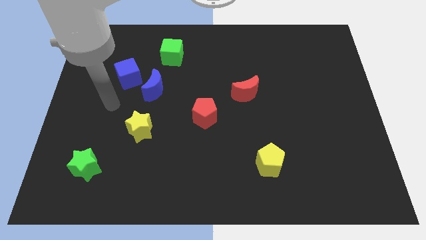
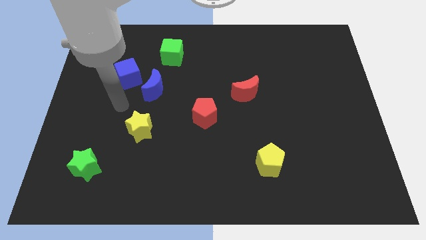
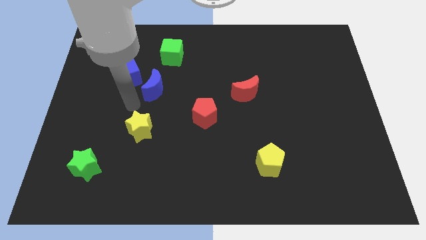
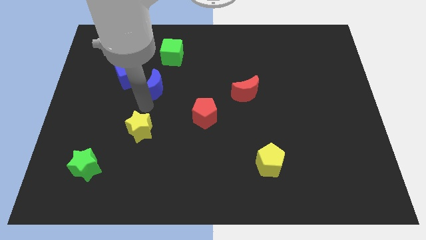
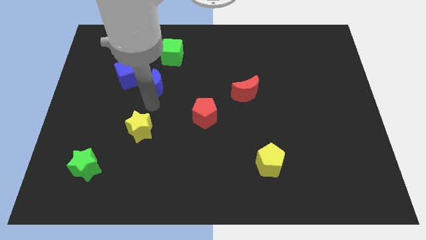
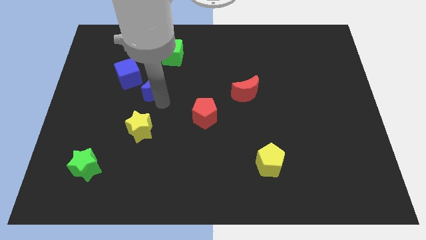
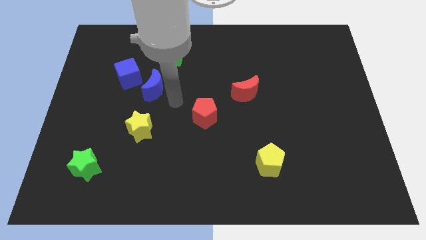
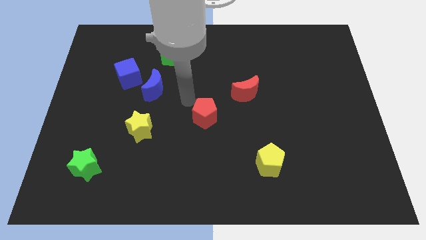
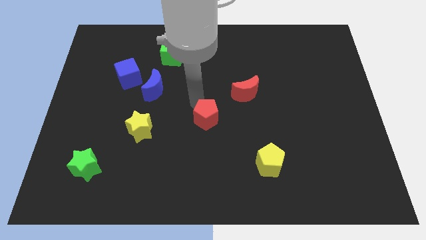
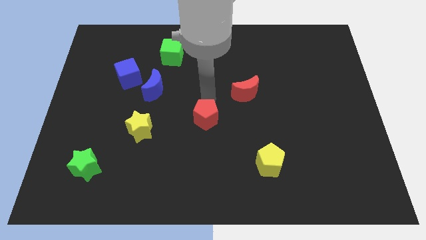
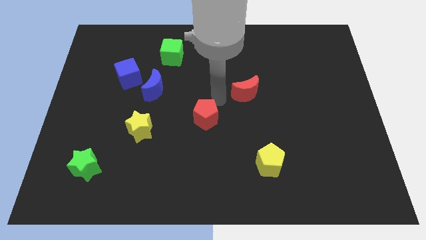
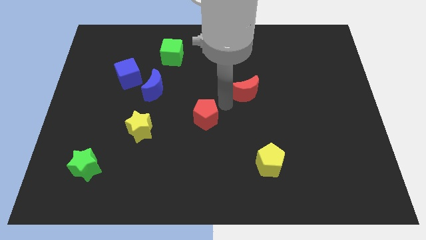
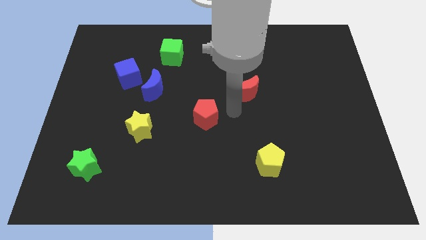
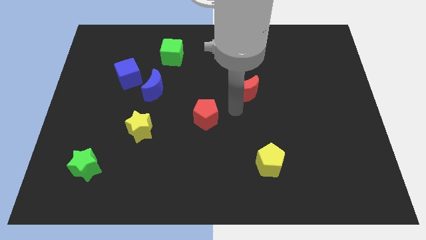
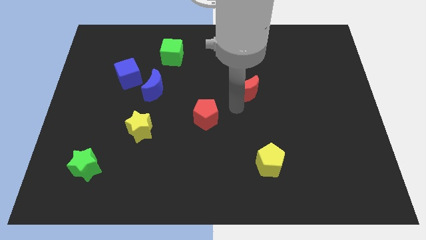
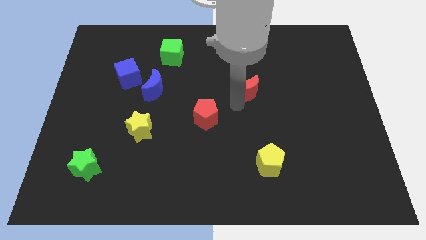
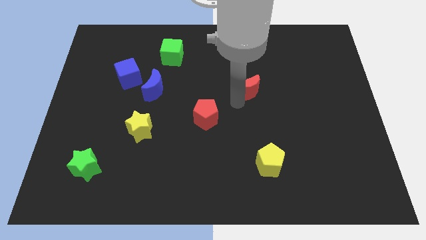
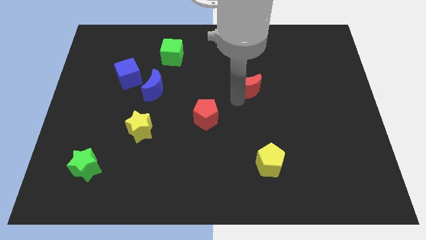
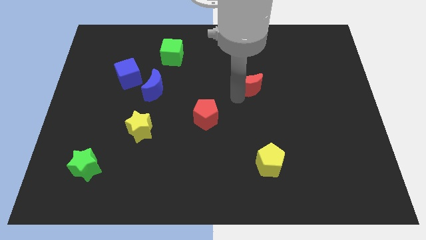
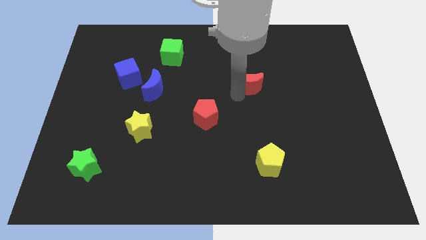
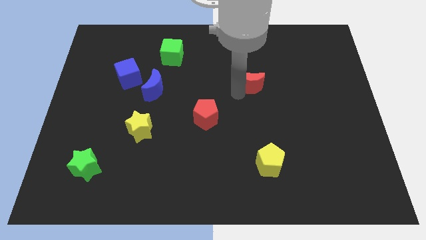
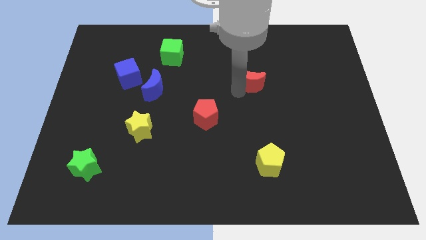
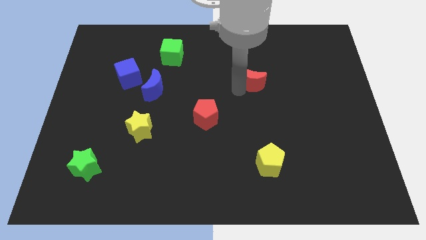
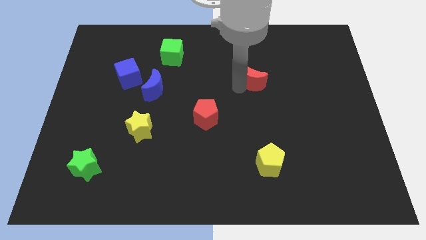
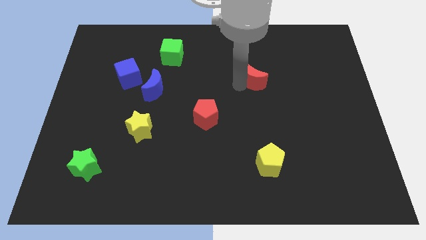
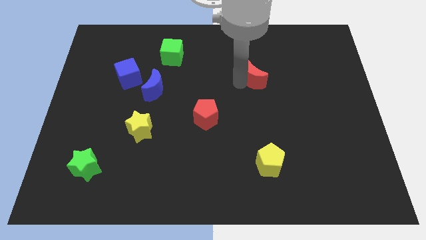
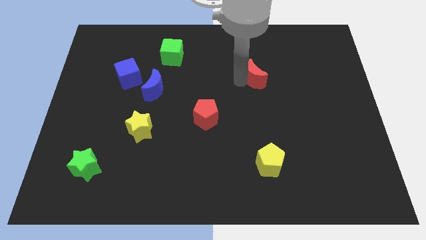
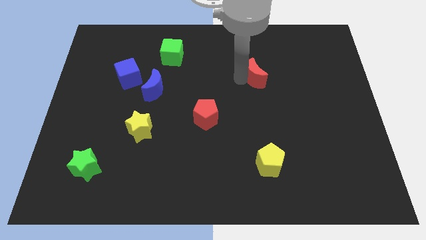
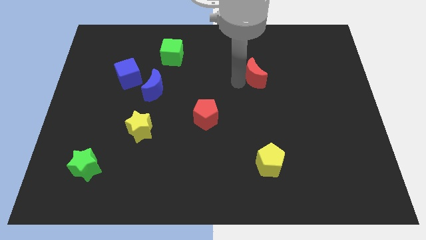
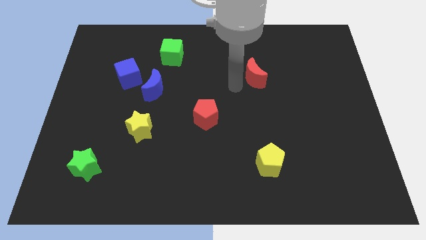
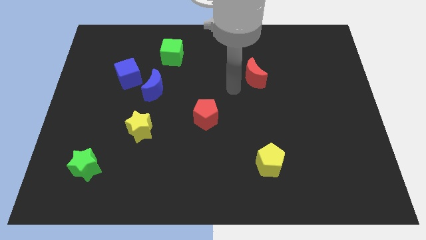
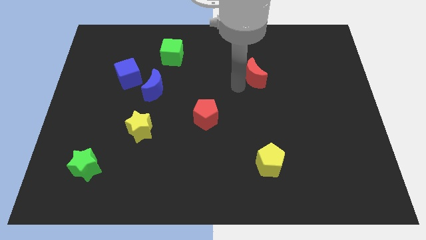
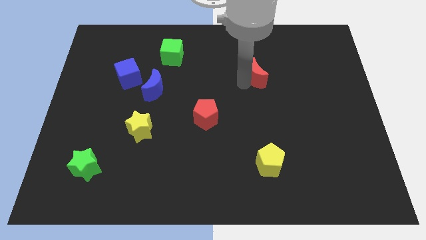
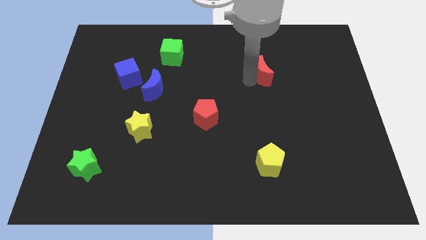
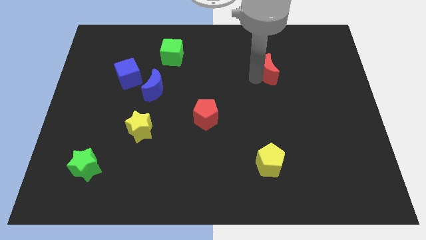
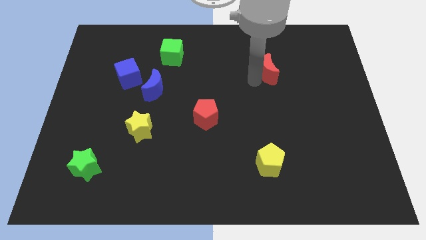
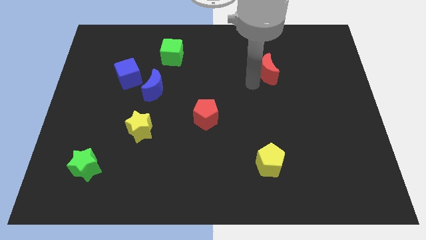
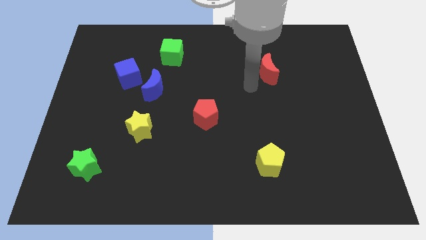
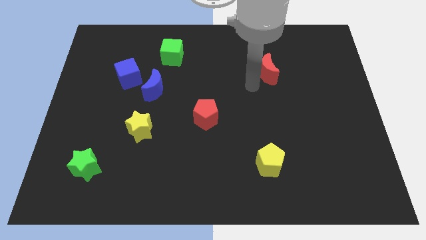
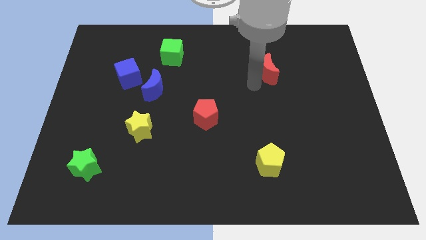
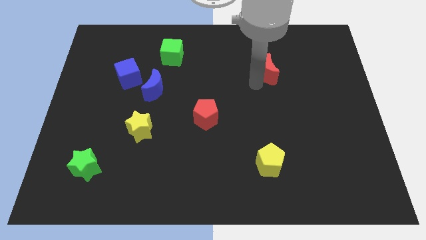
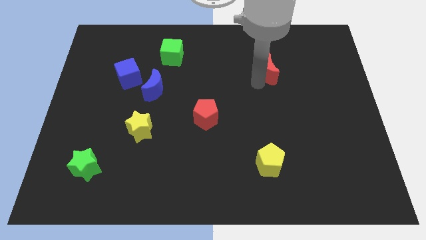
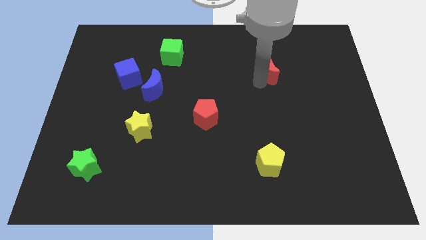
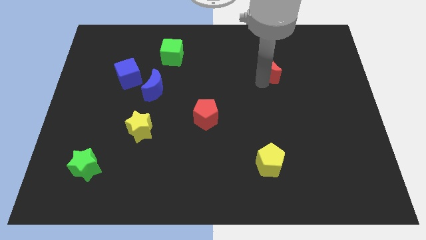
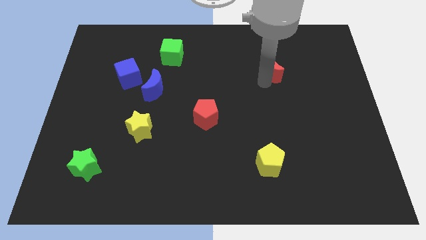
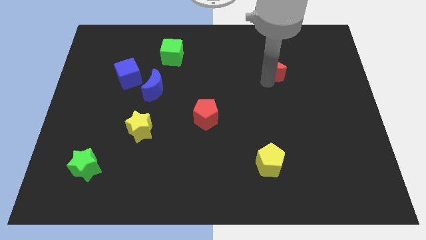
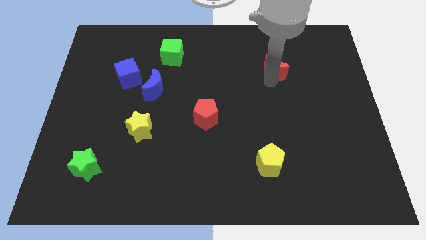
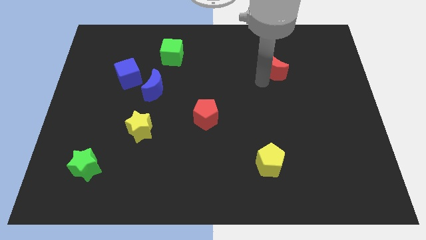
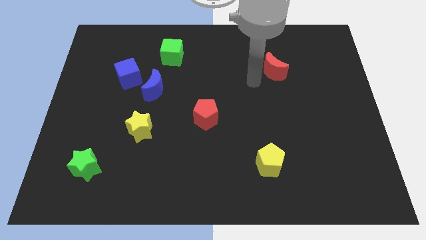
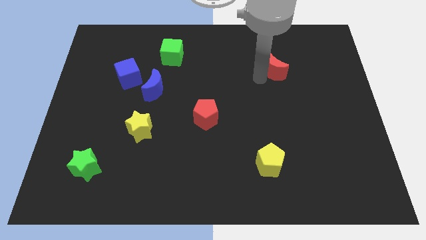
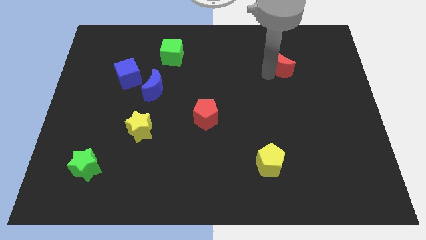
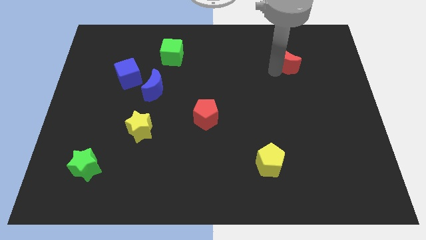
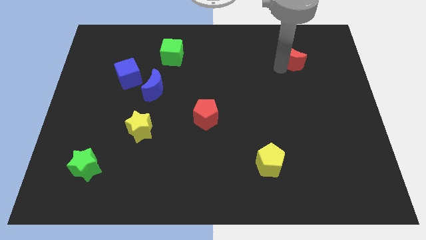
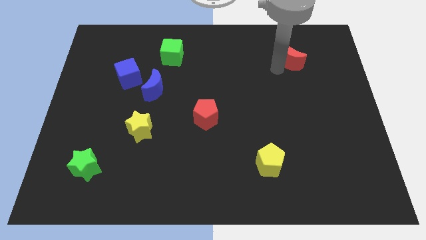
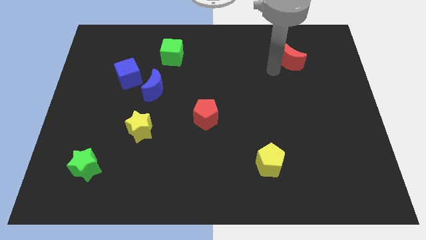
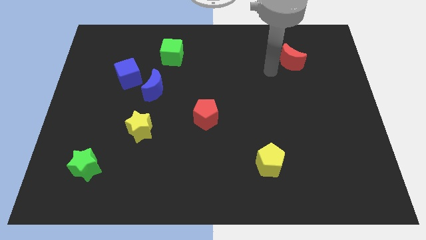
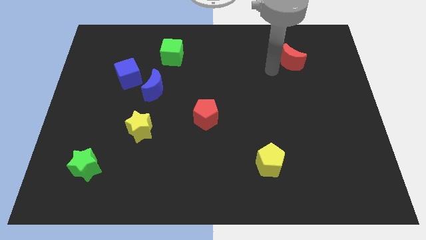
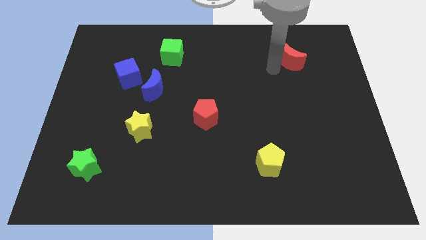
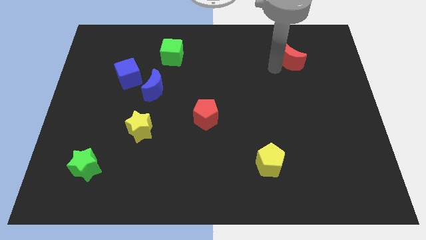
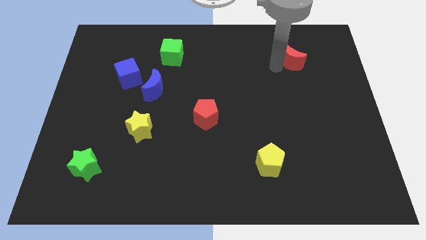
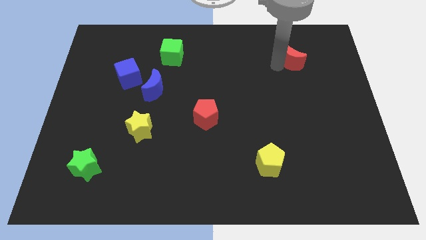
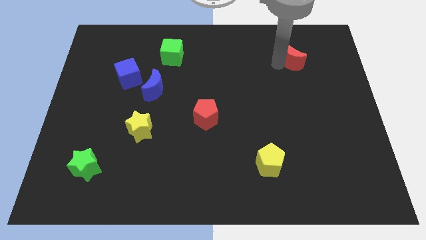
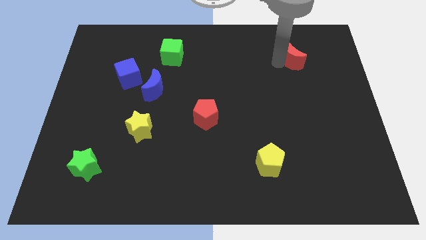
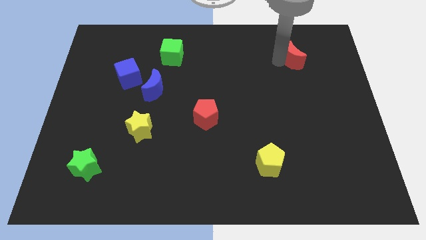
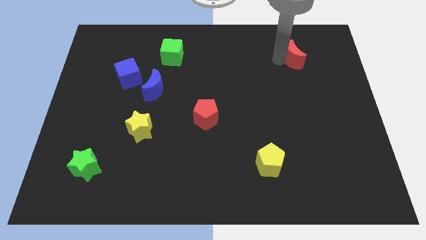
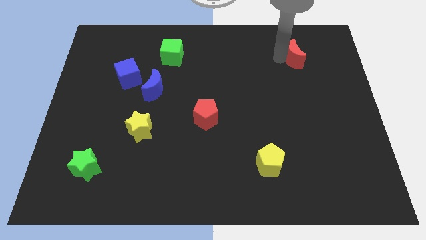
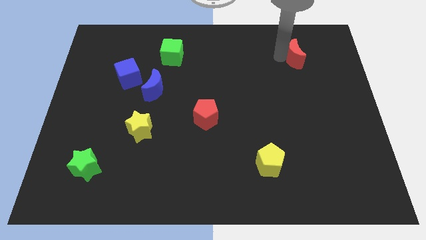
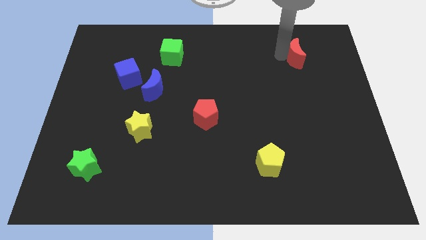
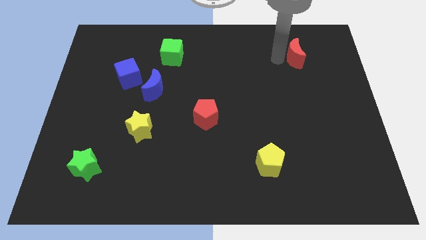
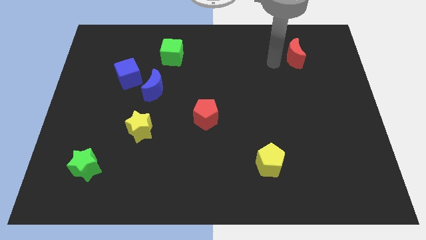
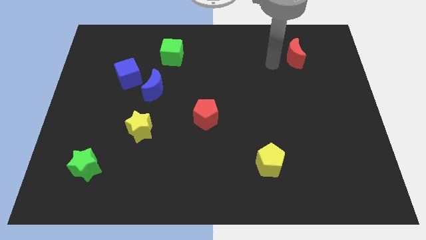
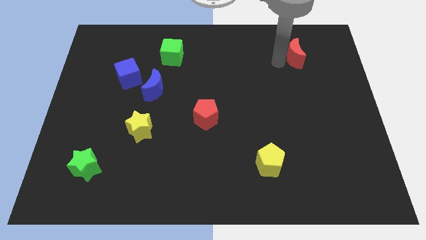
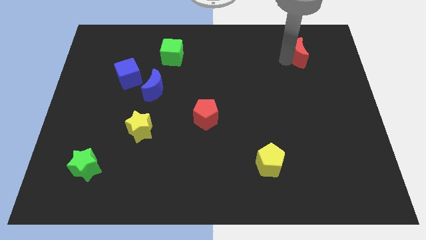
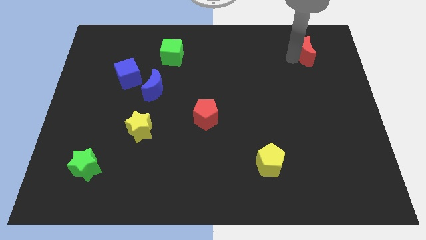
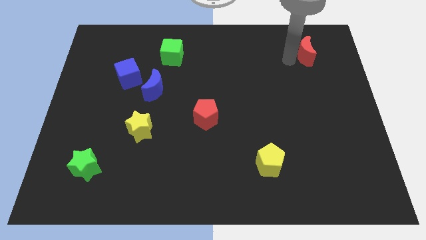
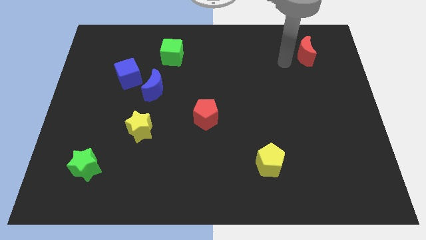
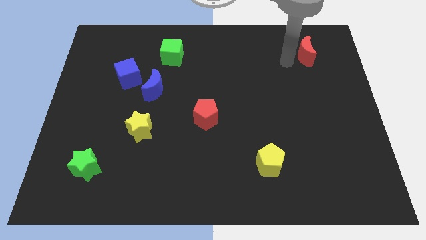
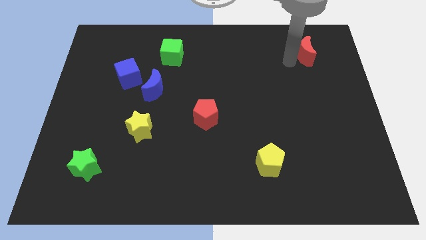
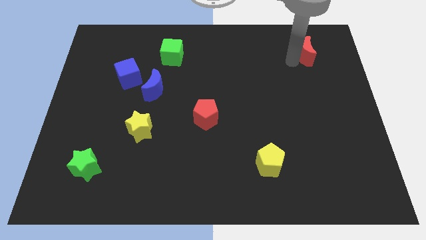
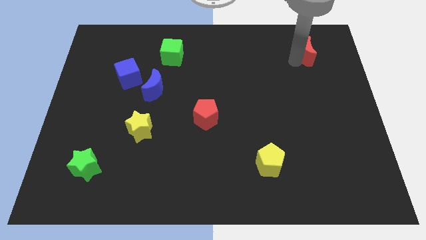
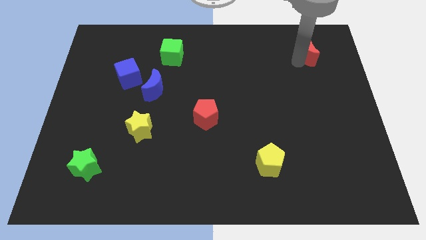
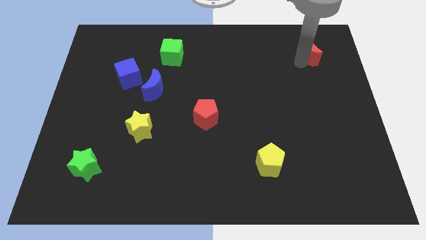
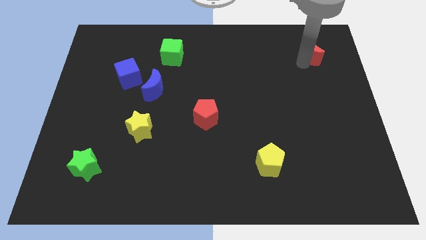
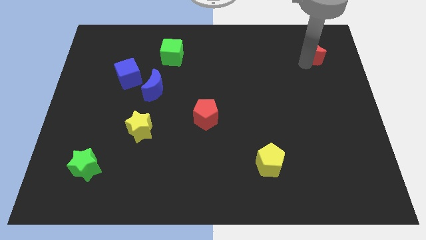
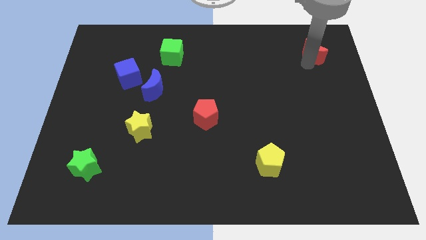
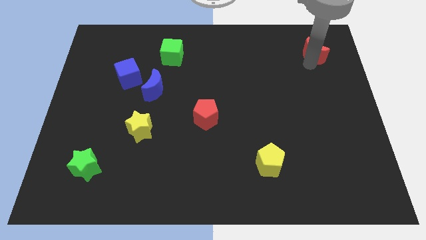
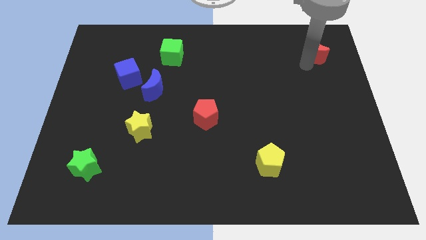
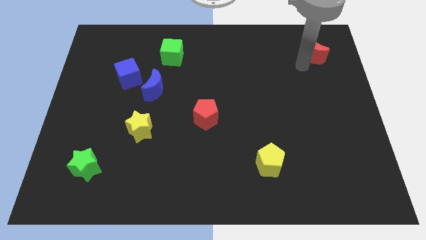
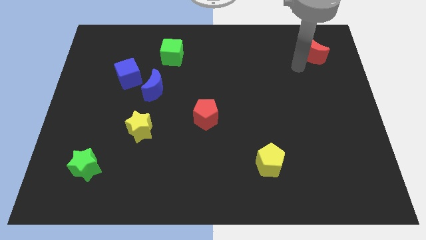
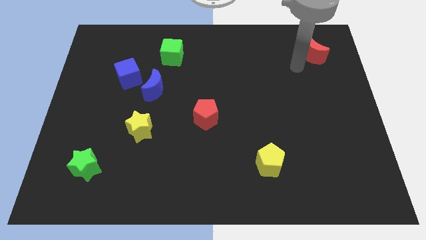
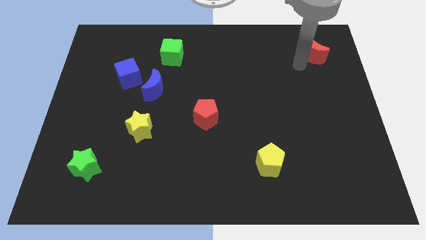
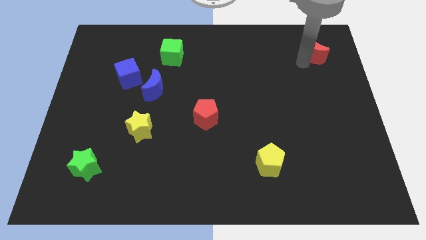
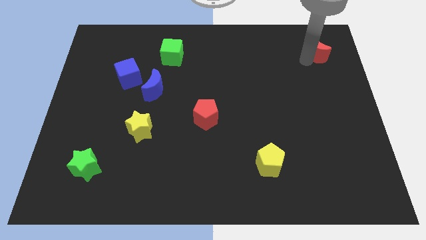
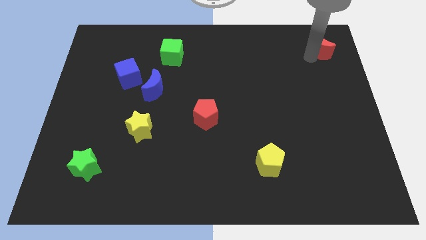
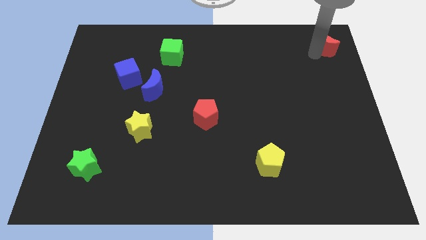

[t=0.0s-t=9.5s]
put the red moon to the top right corner
